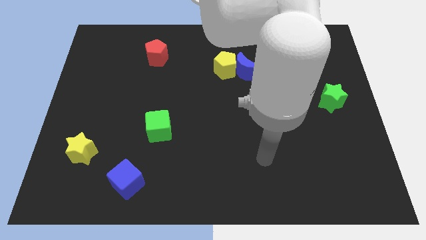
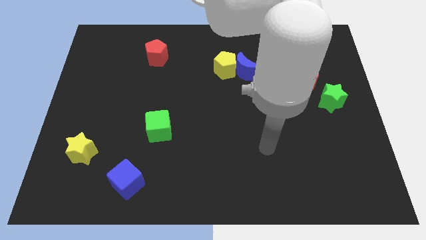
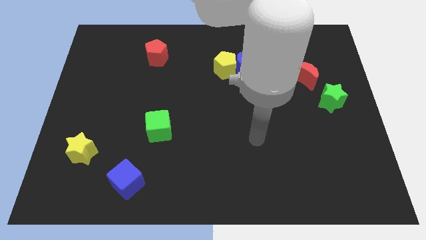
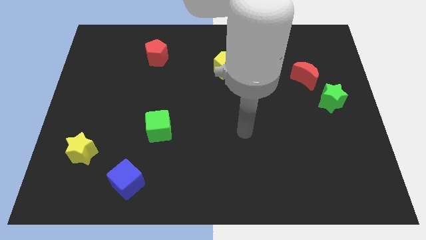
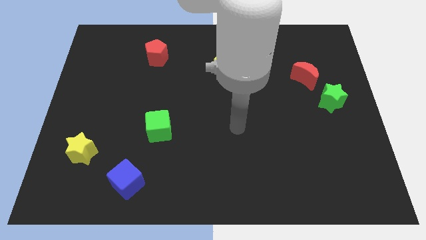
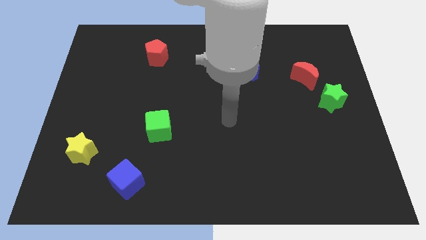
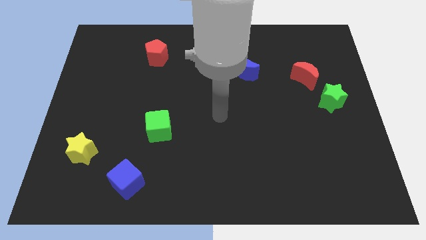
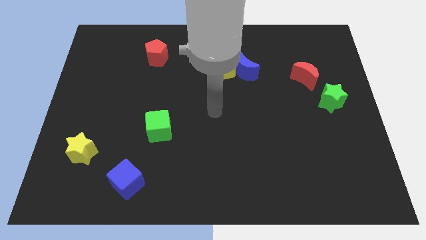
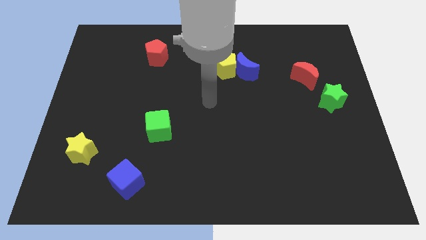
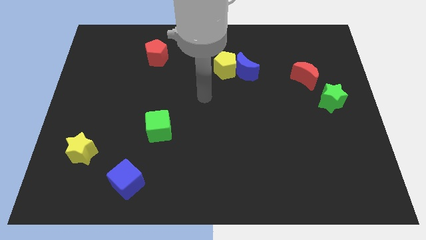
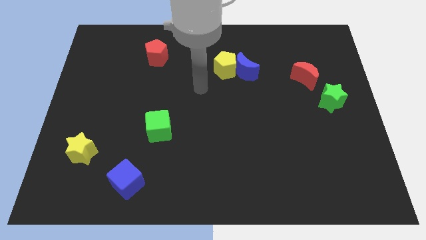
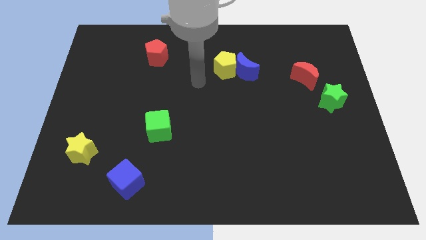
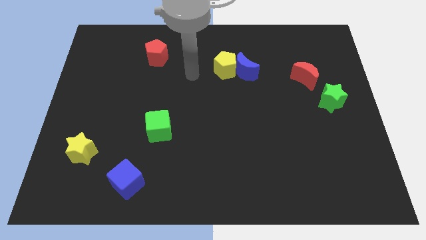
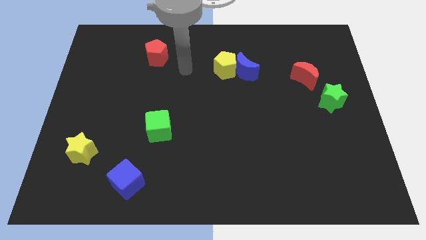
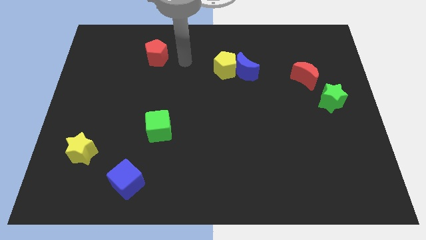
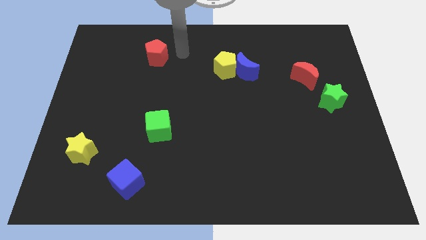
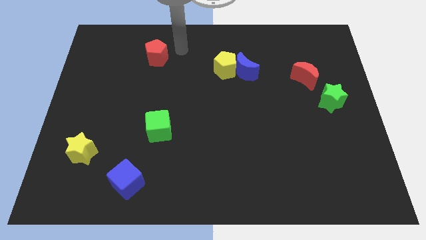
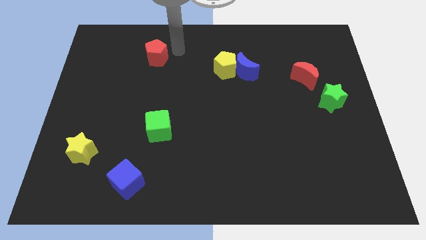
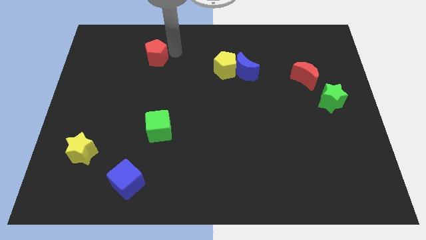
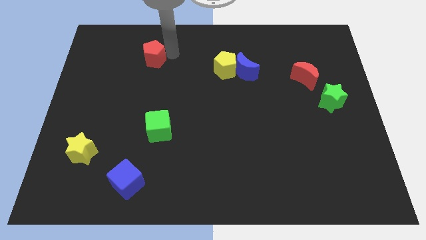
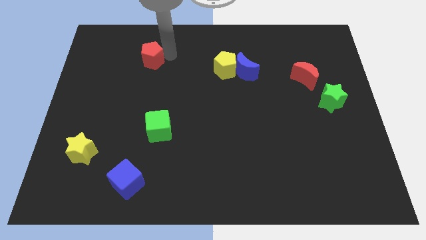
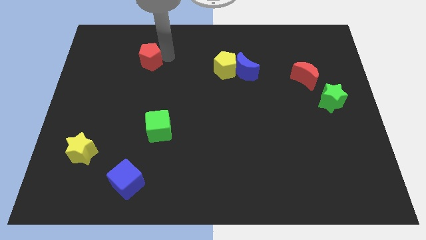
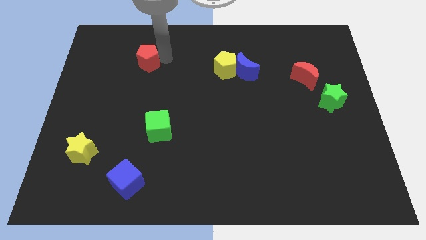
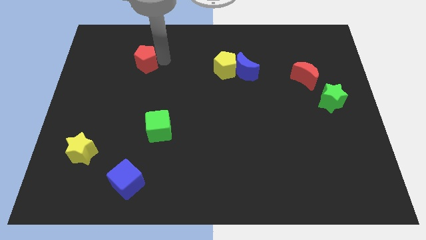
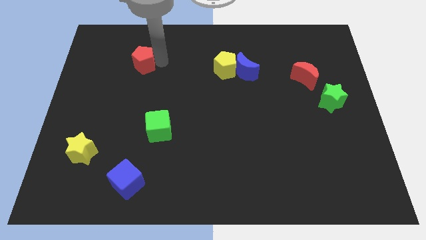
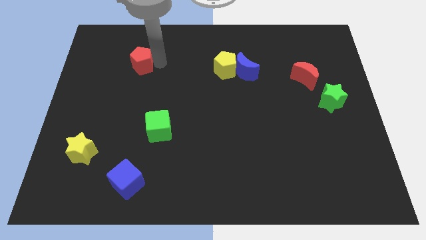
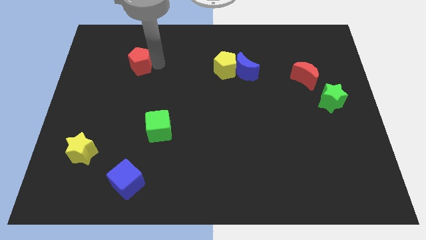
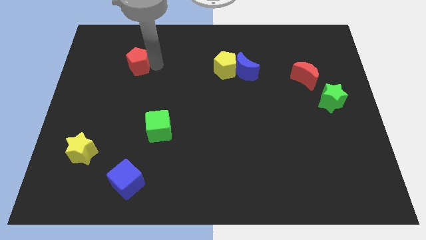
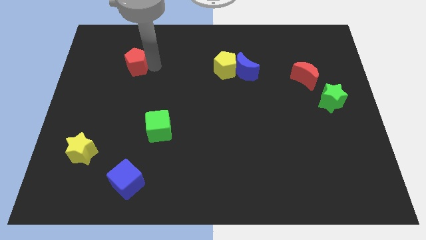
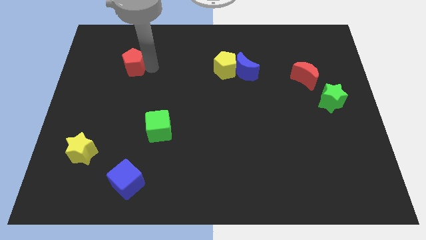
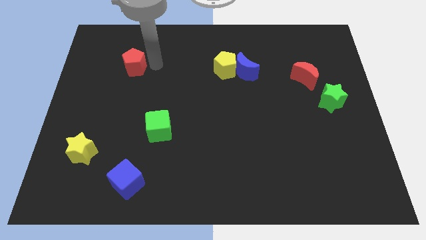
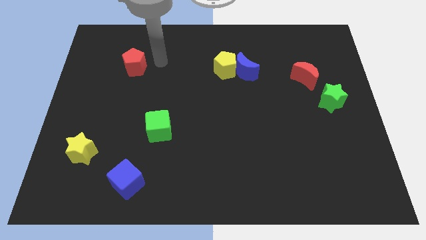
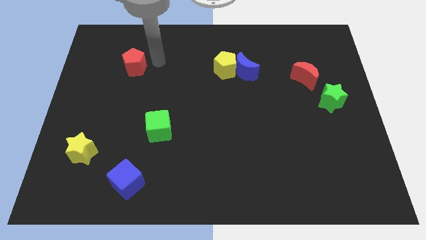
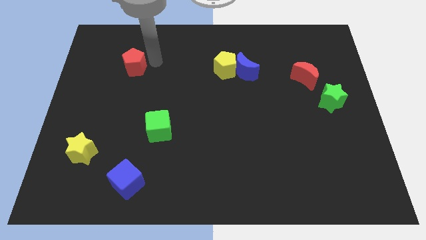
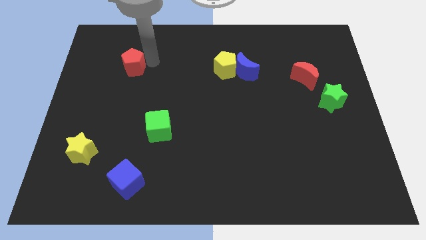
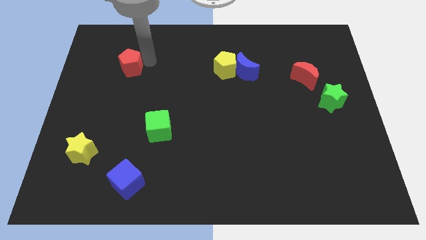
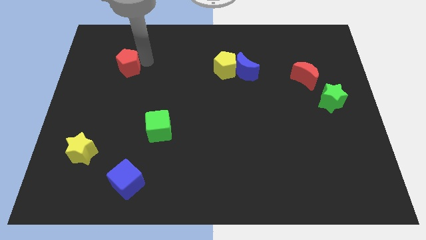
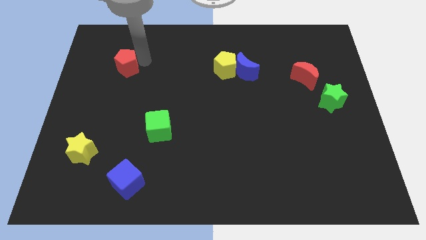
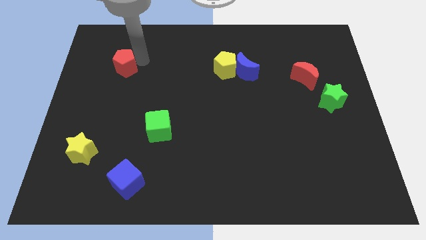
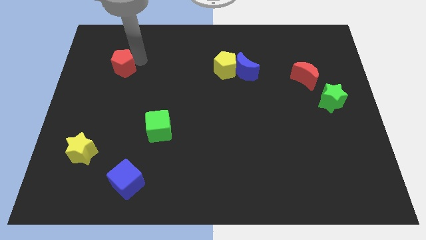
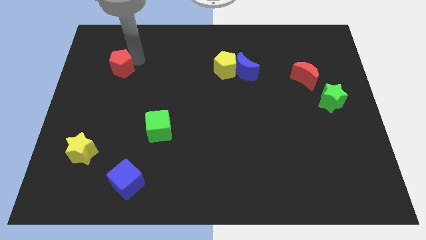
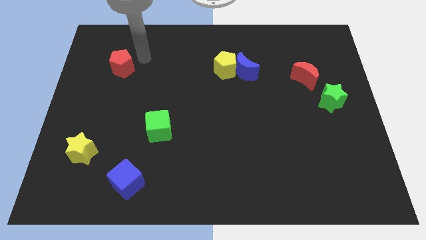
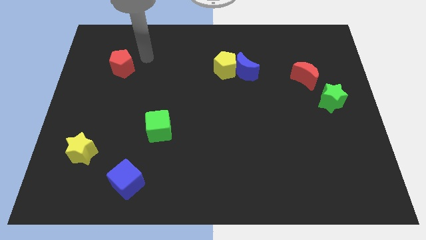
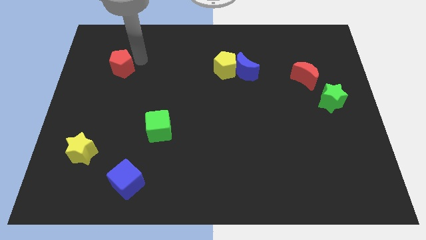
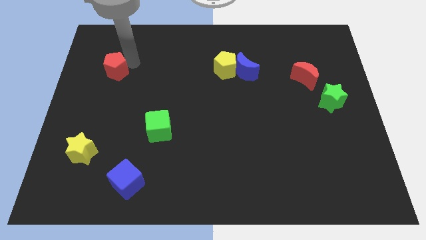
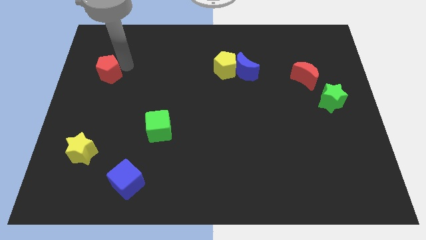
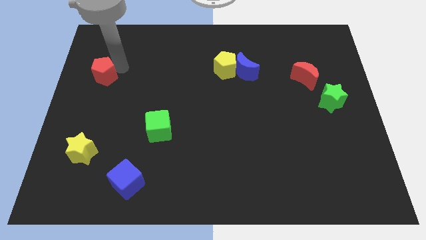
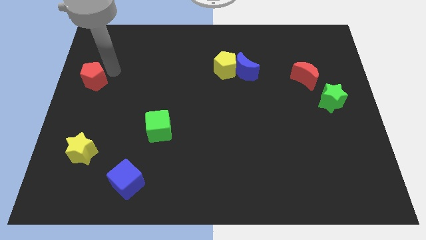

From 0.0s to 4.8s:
push the red pentagon to the left side

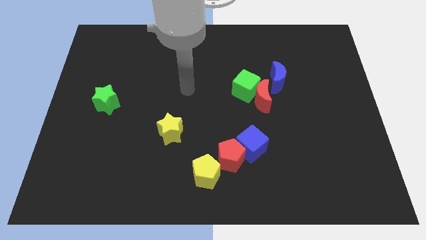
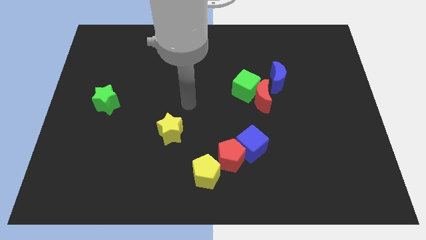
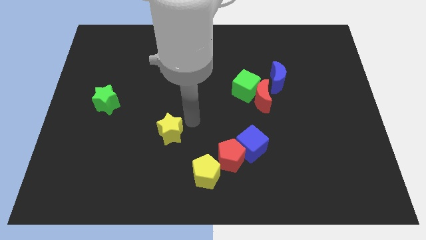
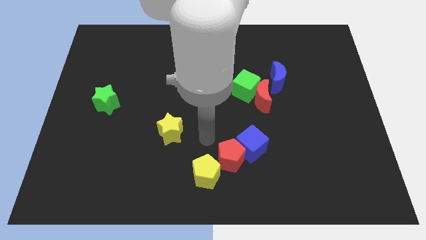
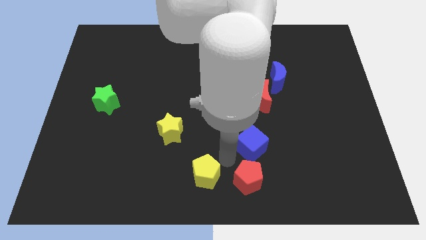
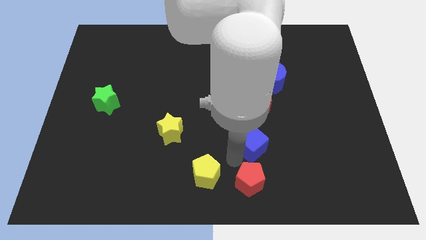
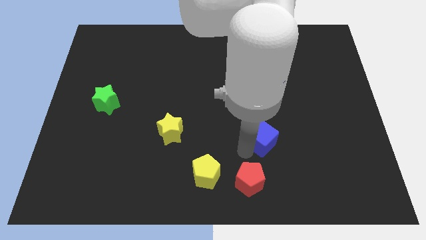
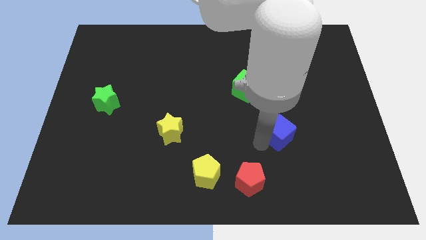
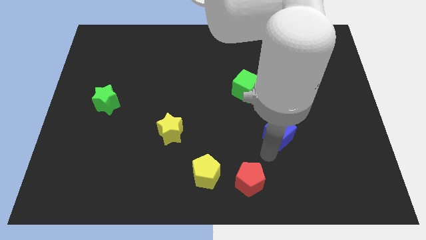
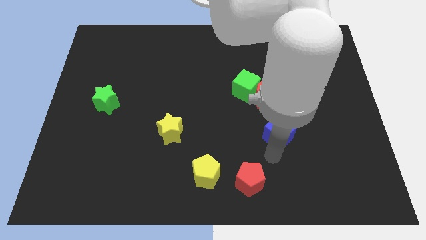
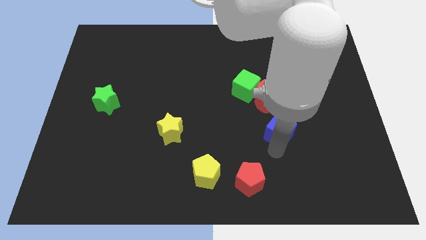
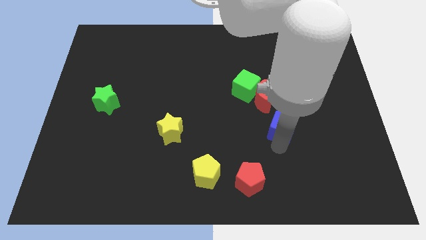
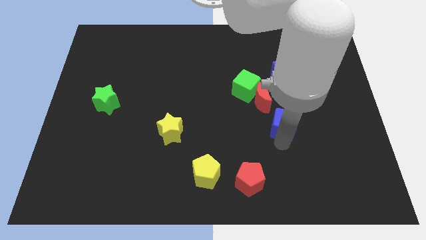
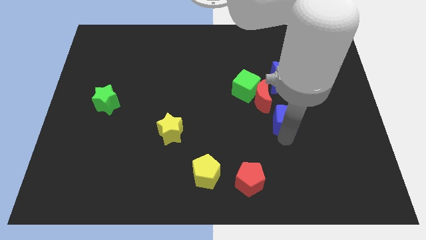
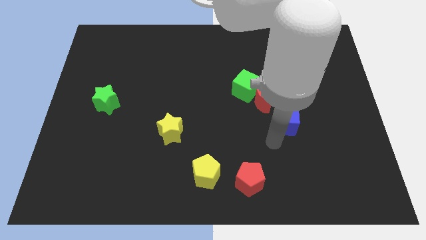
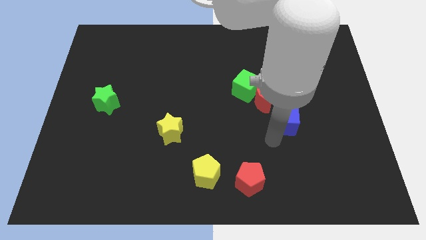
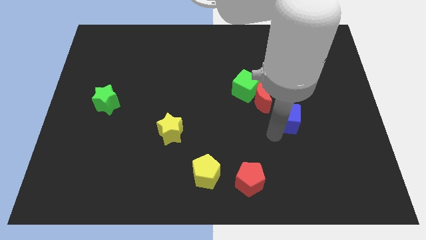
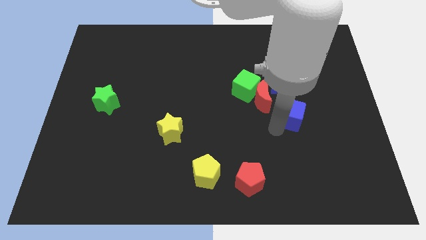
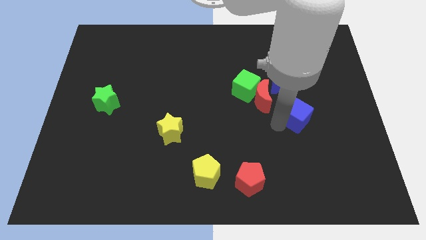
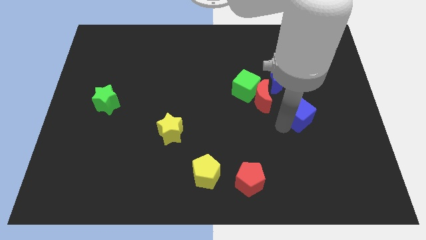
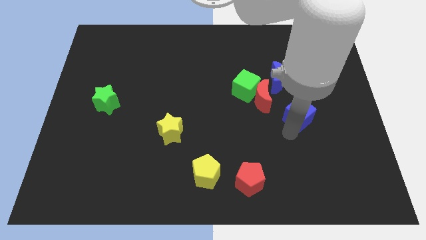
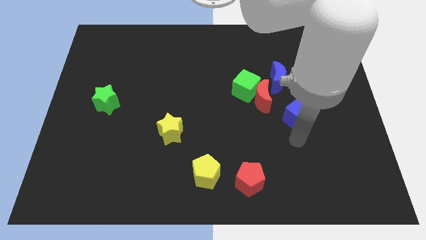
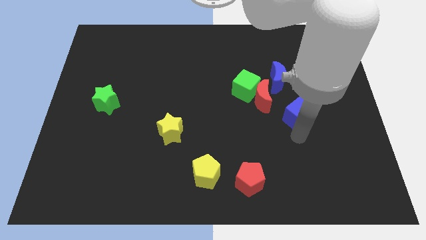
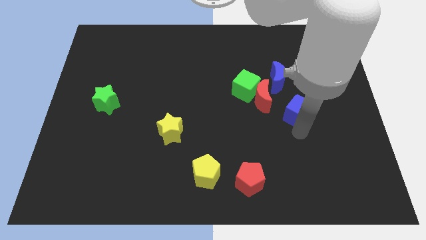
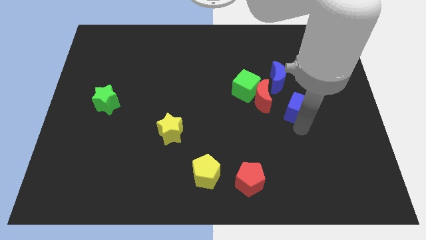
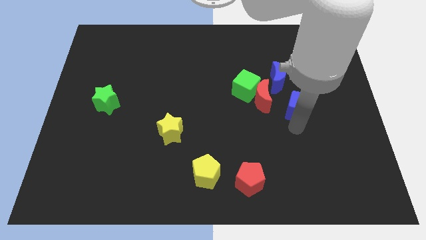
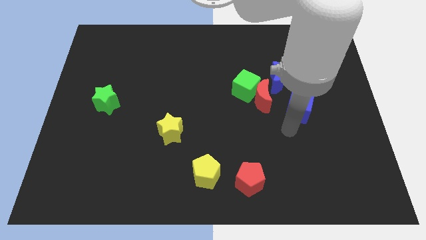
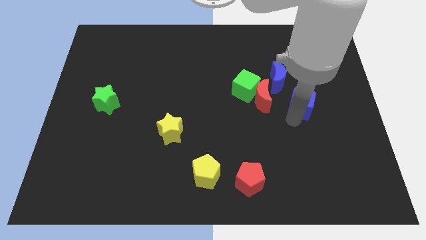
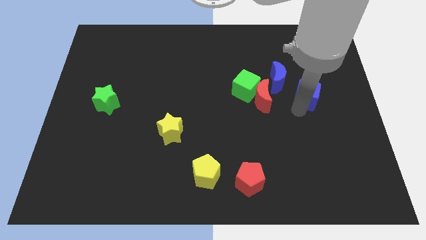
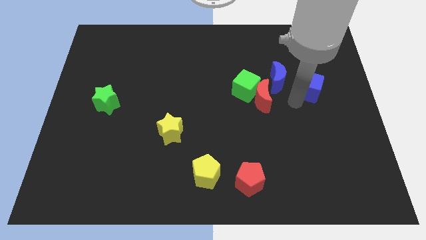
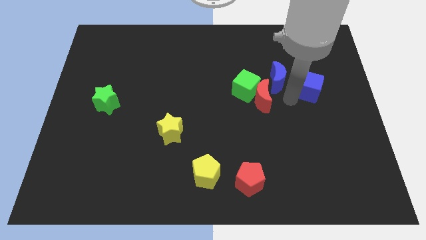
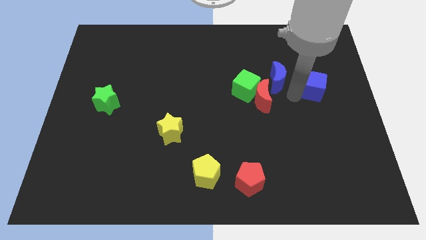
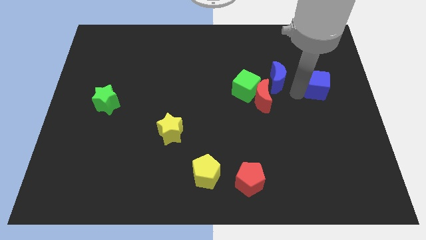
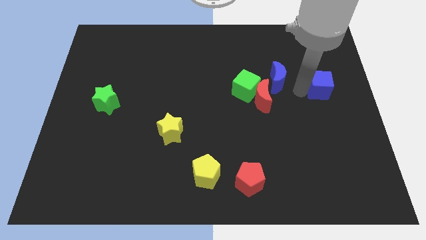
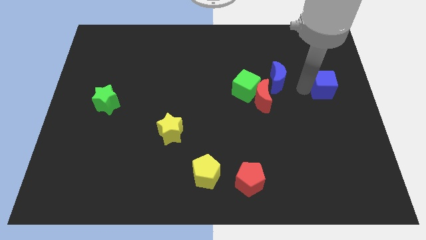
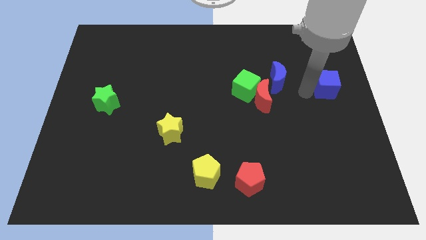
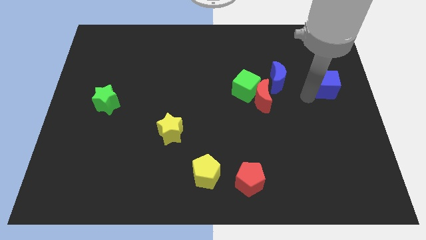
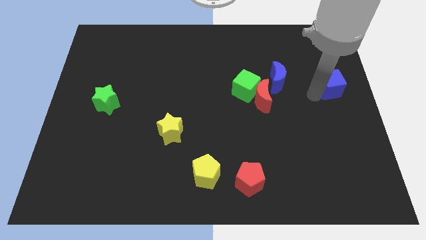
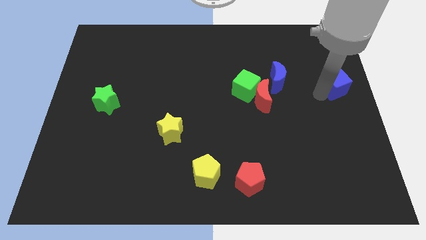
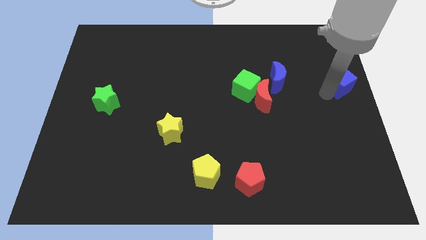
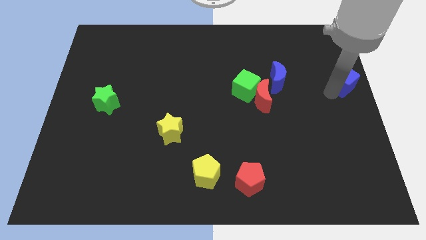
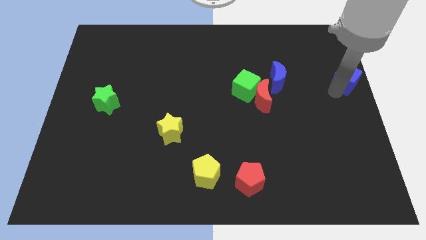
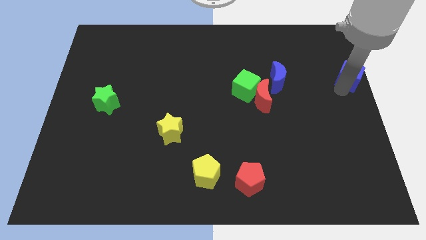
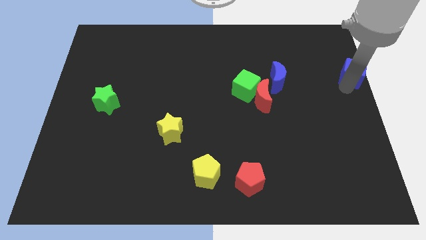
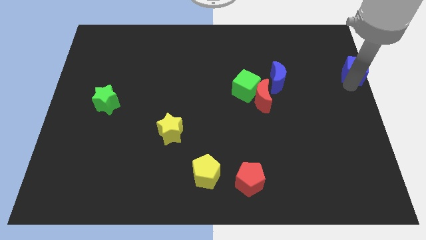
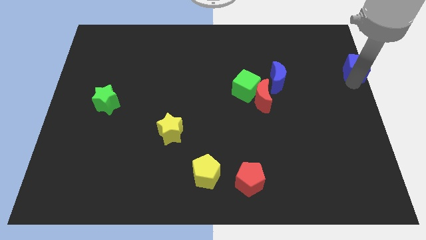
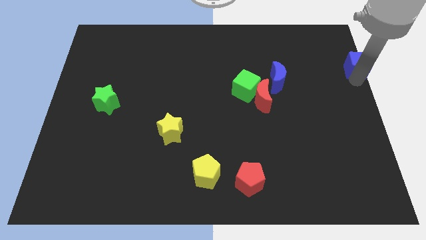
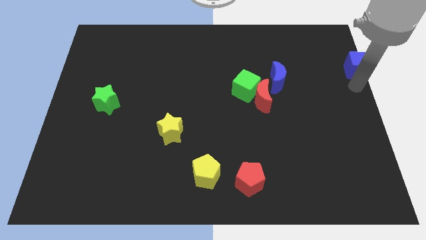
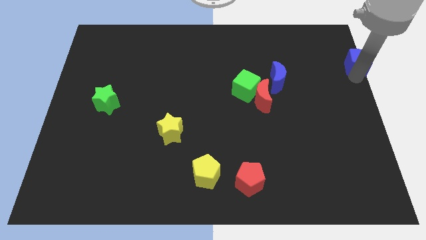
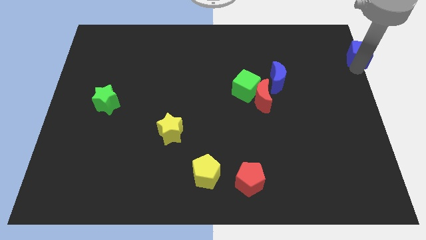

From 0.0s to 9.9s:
move the blue cube to the upper right corner
